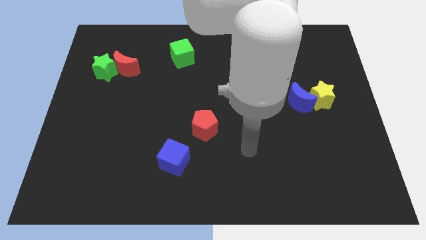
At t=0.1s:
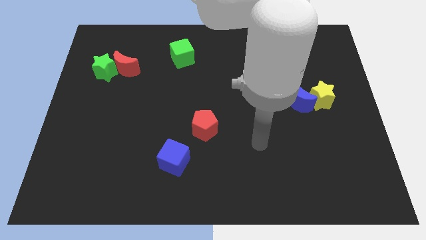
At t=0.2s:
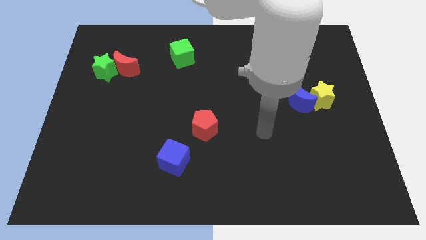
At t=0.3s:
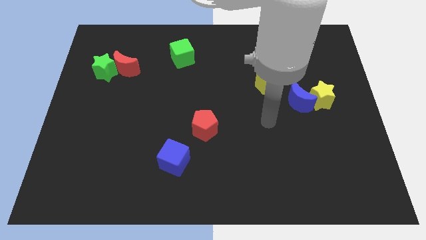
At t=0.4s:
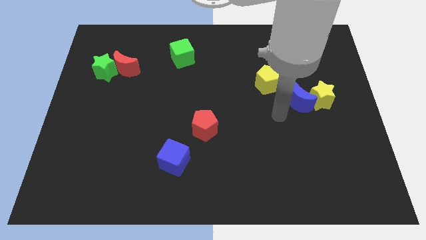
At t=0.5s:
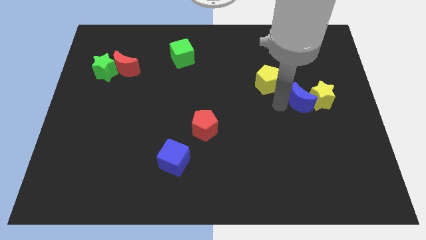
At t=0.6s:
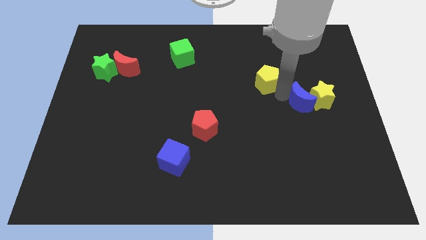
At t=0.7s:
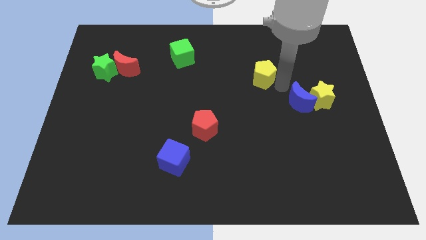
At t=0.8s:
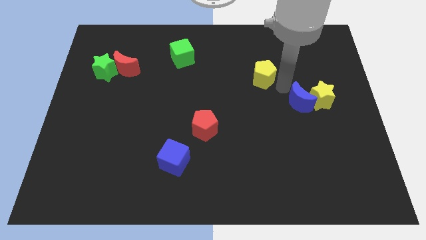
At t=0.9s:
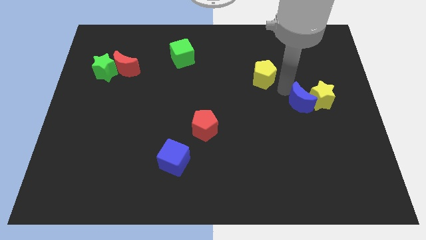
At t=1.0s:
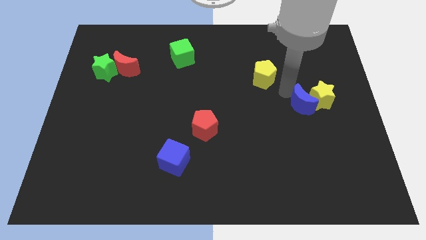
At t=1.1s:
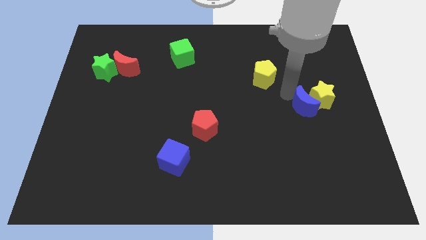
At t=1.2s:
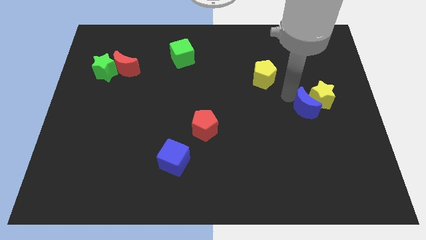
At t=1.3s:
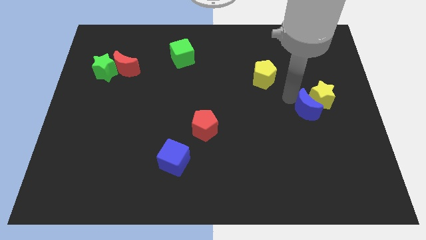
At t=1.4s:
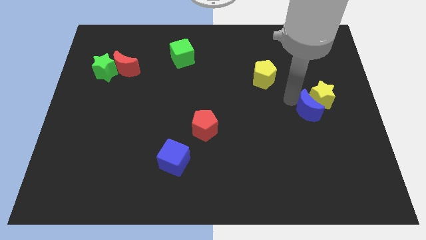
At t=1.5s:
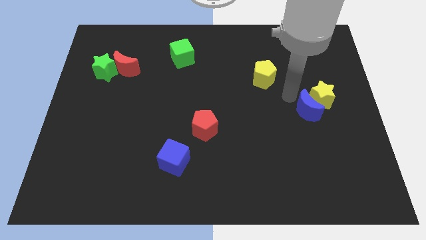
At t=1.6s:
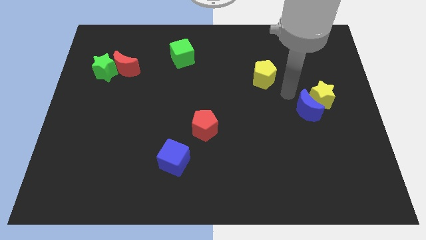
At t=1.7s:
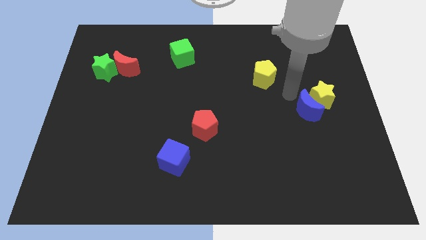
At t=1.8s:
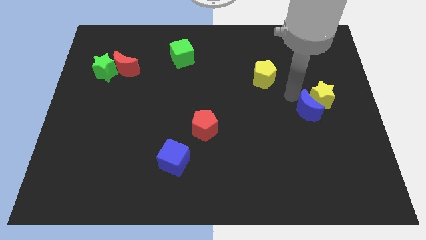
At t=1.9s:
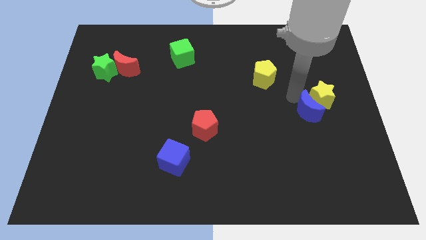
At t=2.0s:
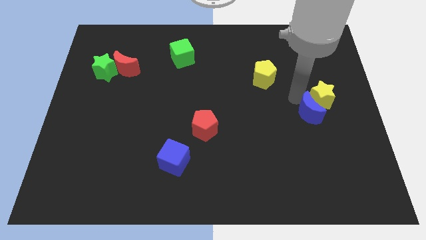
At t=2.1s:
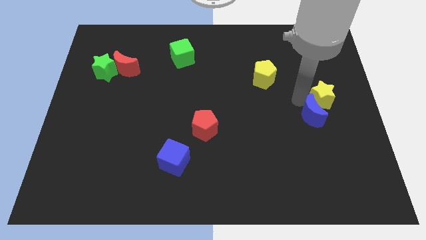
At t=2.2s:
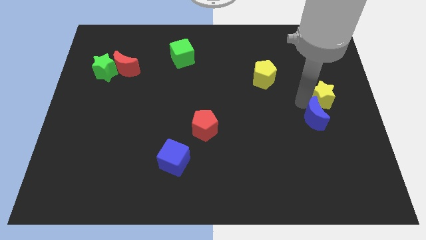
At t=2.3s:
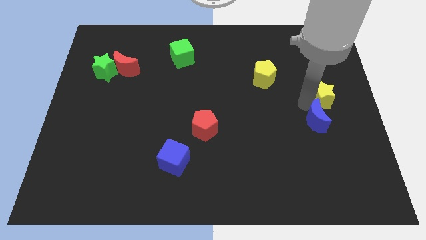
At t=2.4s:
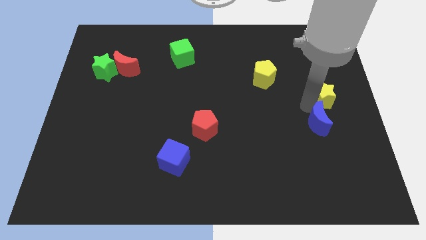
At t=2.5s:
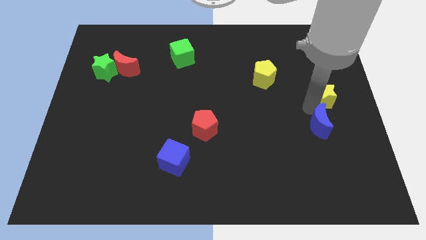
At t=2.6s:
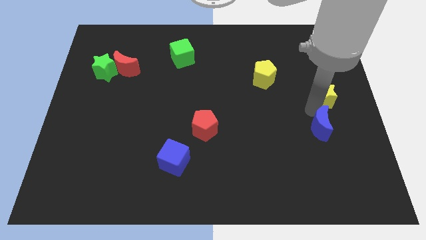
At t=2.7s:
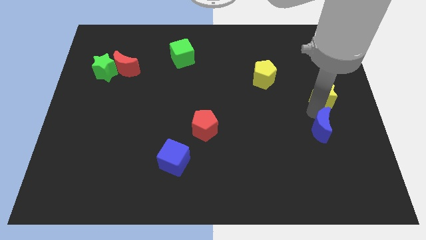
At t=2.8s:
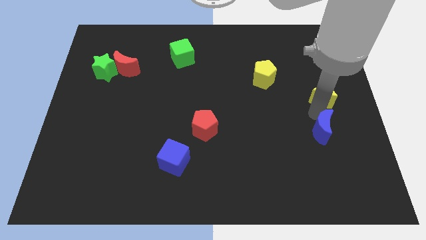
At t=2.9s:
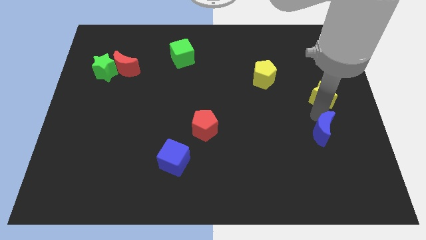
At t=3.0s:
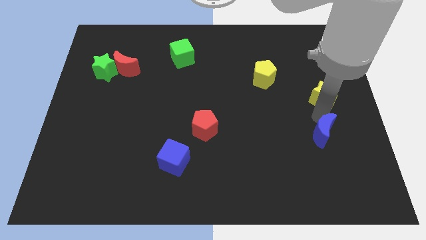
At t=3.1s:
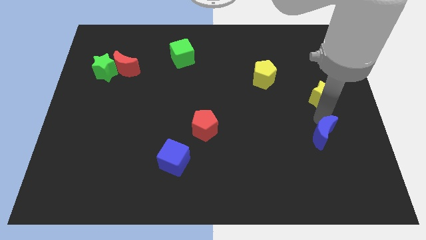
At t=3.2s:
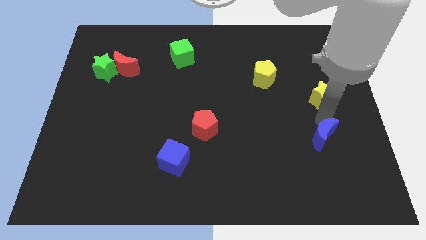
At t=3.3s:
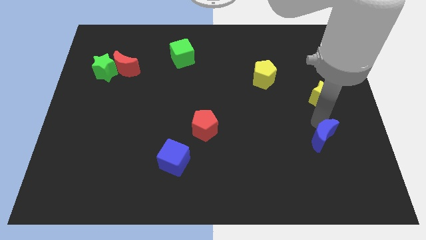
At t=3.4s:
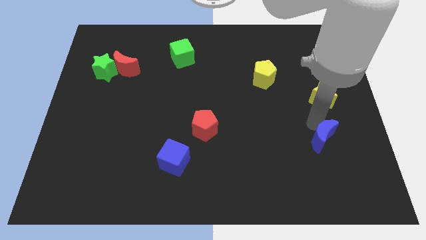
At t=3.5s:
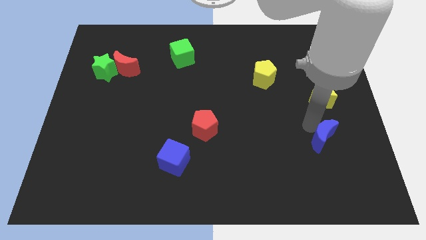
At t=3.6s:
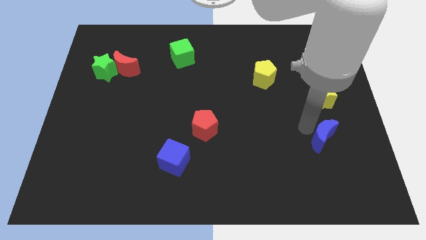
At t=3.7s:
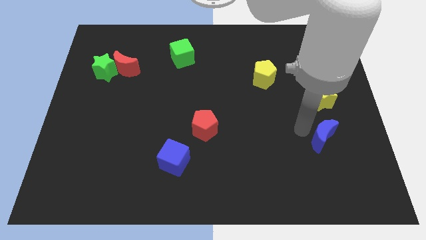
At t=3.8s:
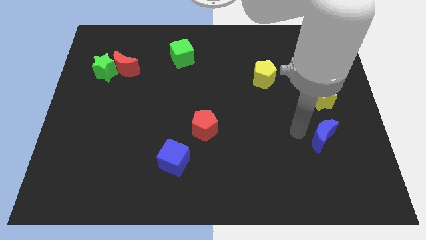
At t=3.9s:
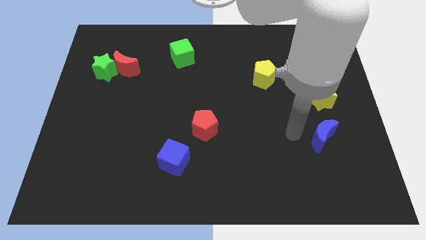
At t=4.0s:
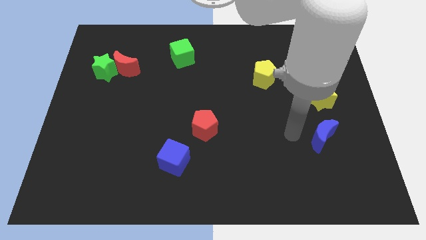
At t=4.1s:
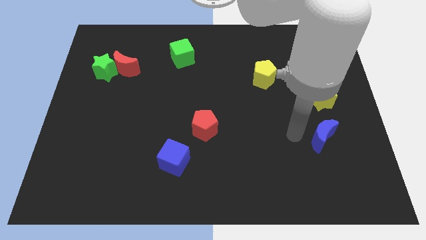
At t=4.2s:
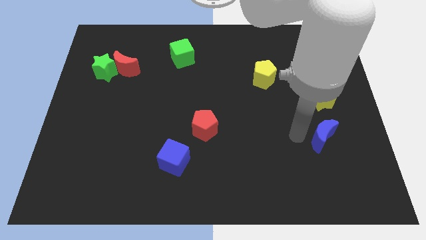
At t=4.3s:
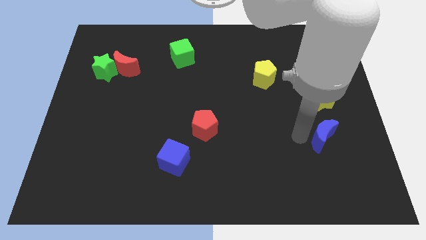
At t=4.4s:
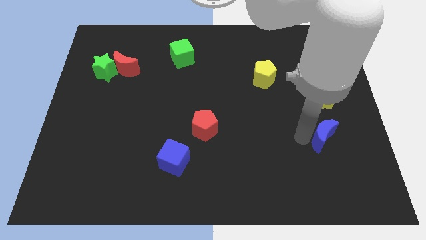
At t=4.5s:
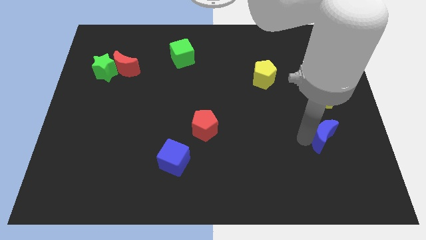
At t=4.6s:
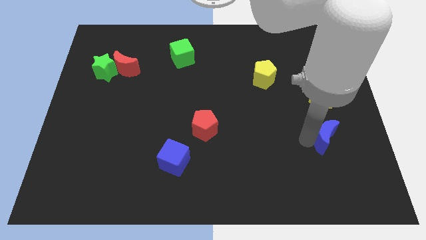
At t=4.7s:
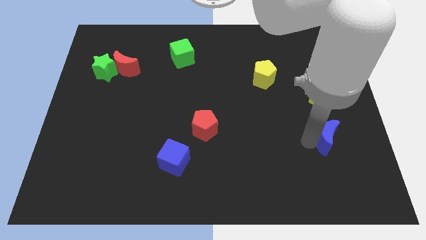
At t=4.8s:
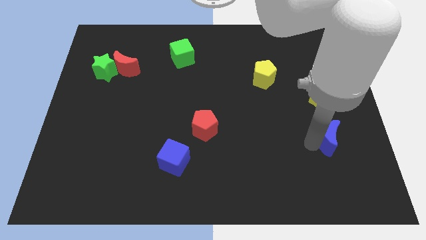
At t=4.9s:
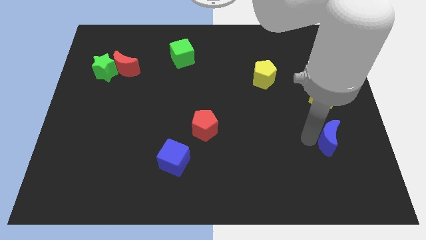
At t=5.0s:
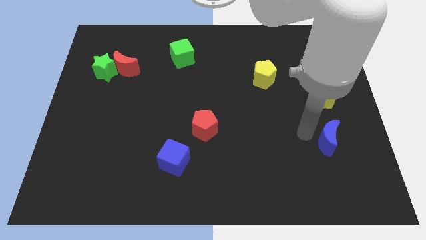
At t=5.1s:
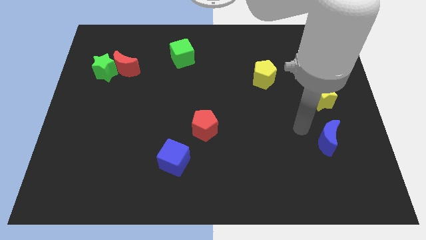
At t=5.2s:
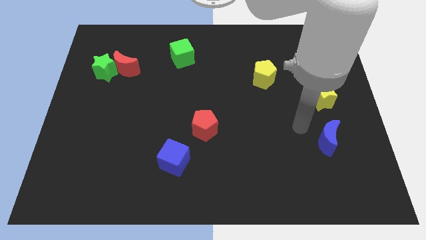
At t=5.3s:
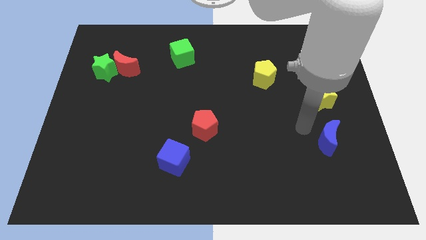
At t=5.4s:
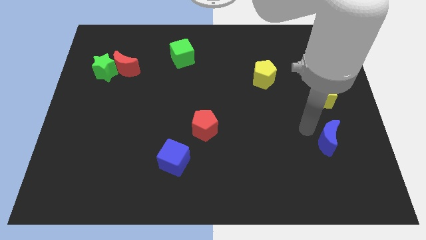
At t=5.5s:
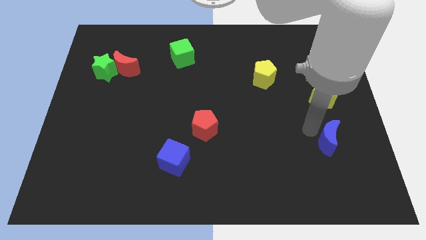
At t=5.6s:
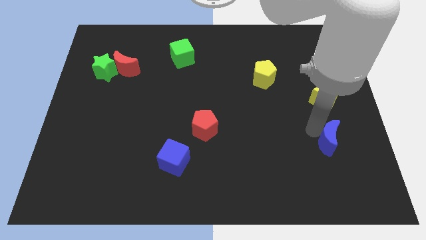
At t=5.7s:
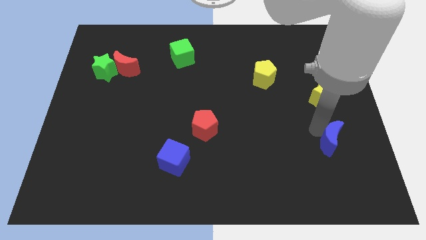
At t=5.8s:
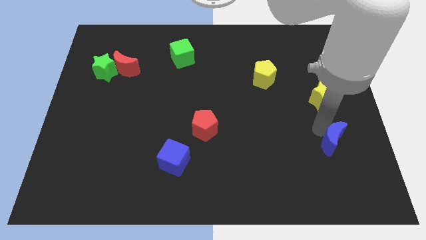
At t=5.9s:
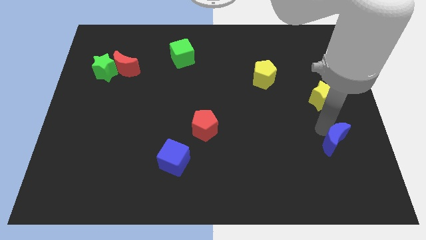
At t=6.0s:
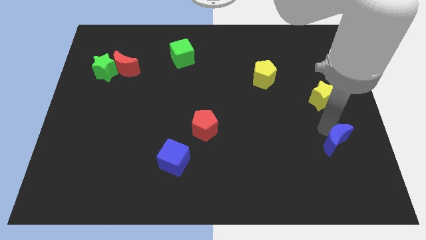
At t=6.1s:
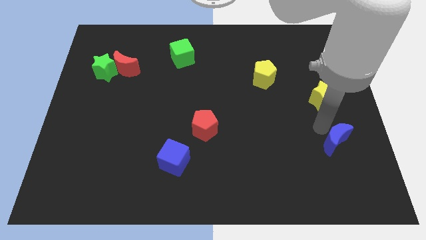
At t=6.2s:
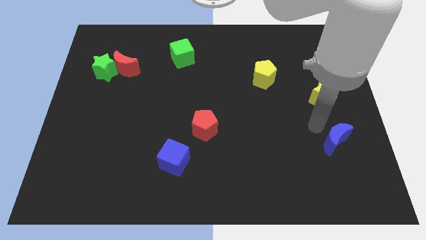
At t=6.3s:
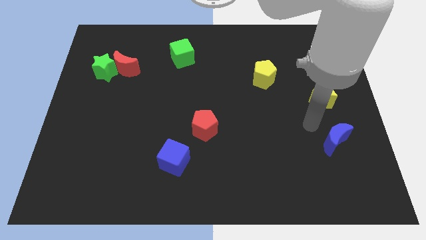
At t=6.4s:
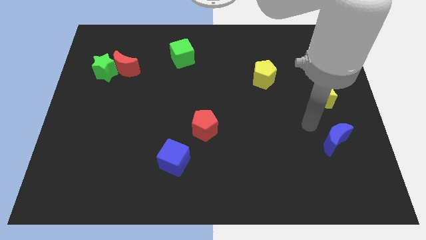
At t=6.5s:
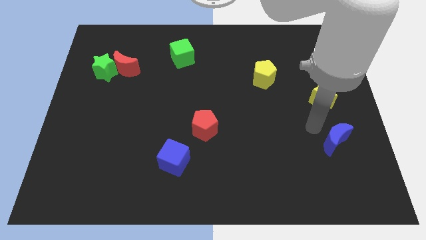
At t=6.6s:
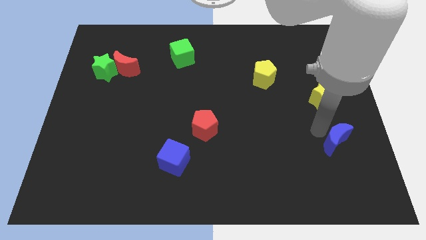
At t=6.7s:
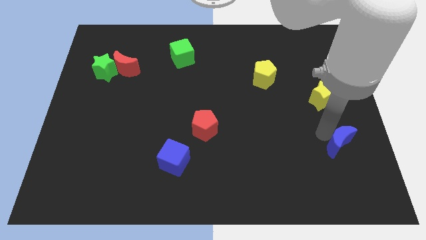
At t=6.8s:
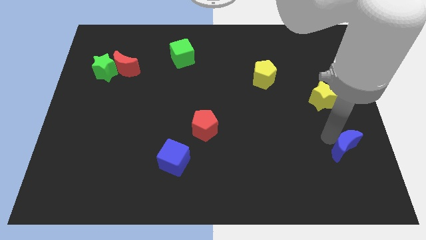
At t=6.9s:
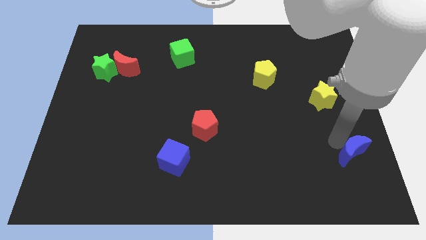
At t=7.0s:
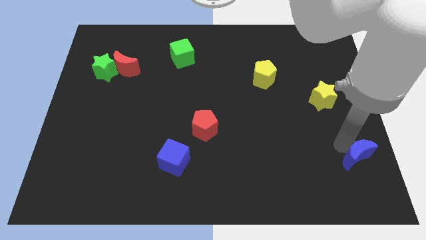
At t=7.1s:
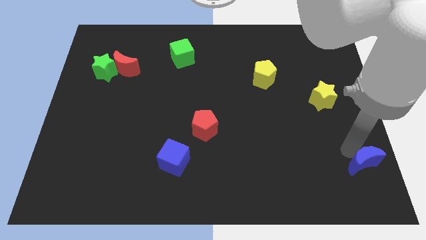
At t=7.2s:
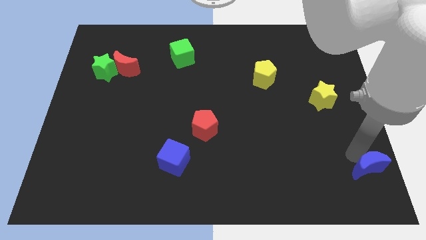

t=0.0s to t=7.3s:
push the blue moon to the bottom right of the board
